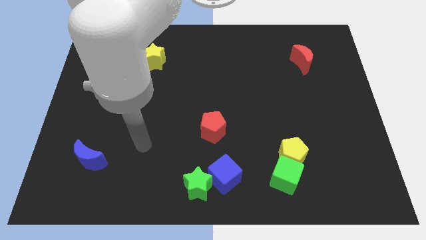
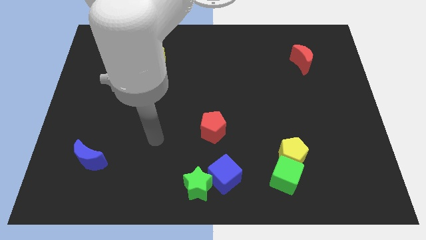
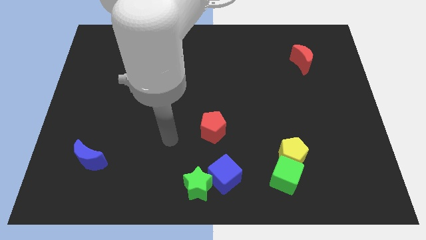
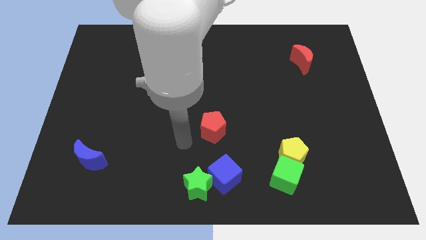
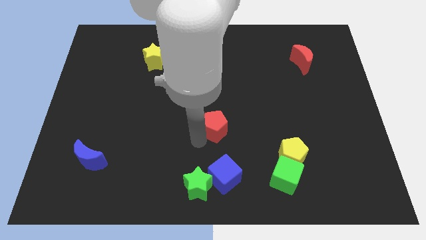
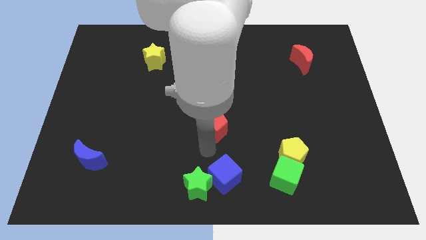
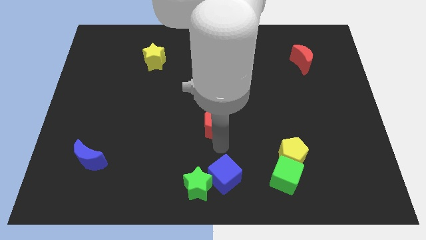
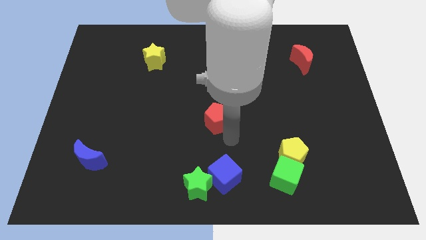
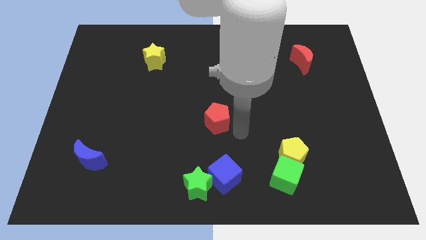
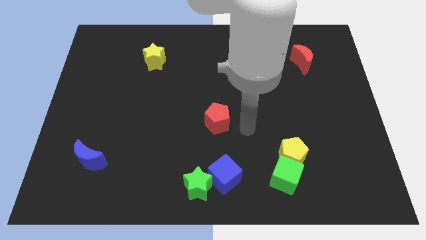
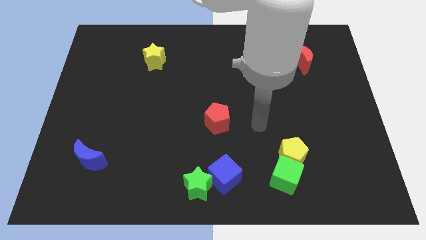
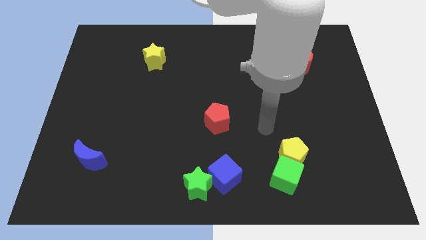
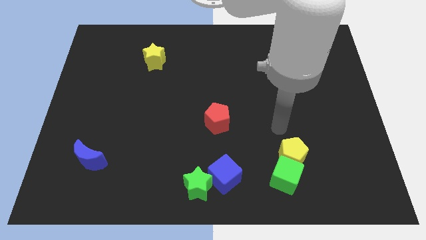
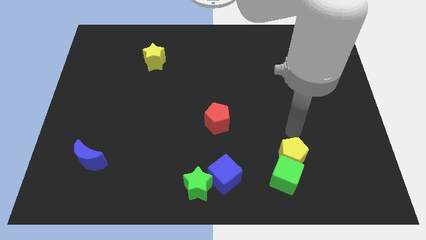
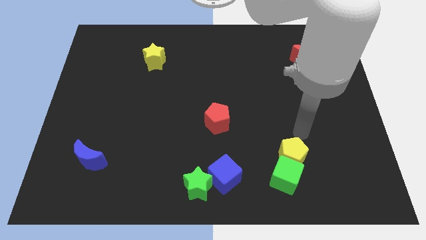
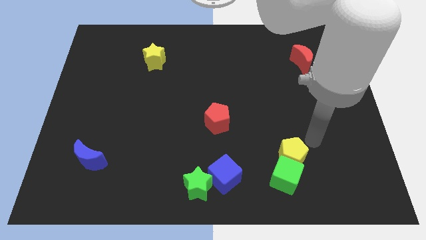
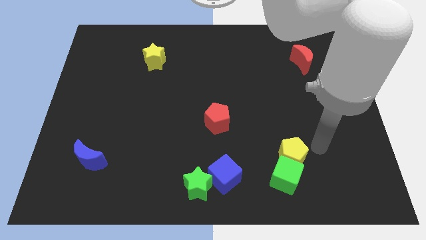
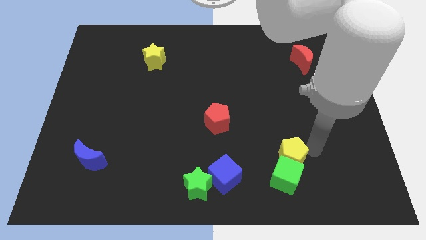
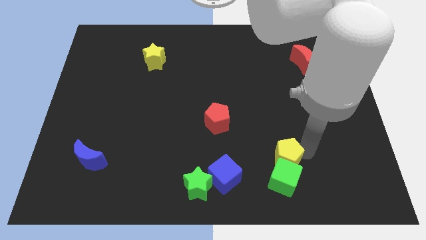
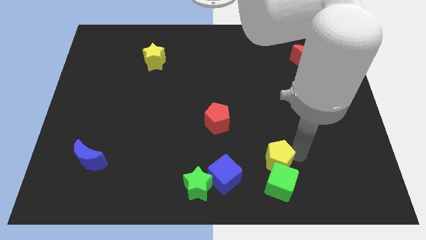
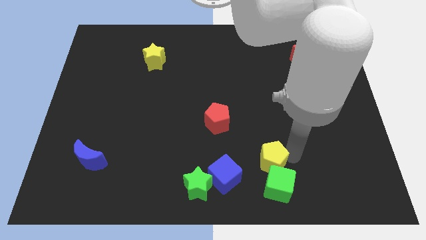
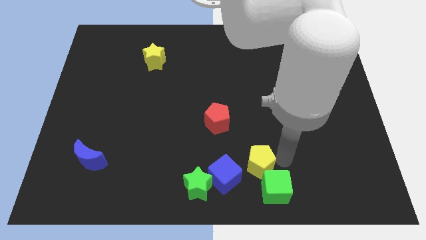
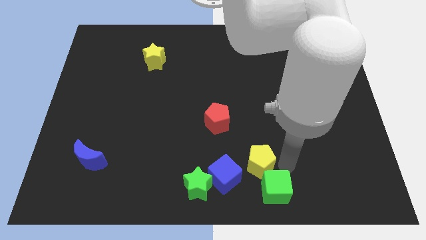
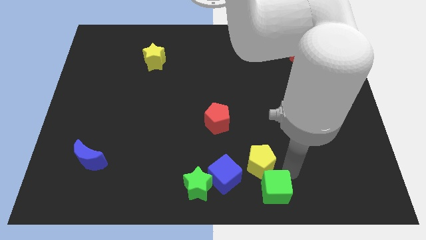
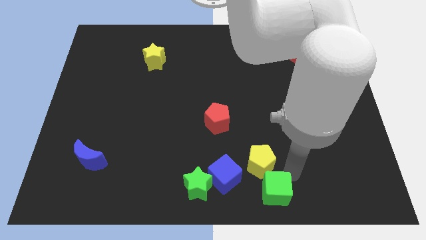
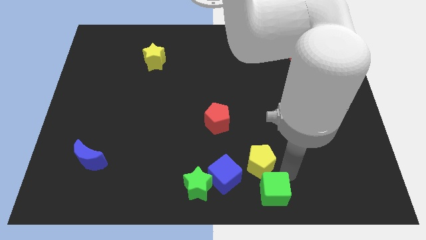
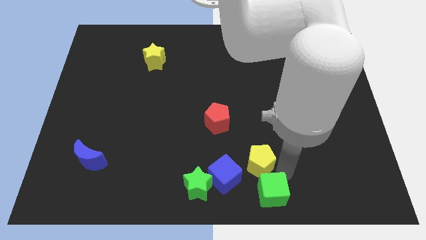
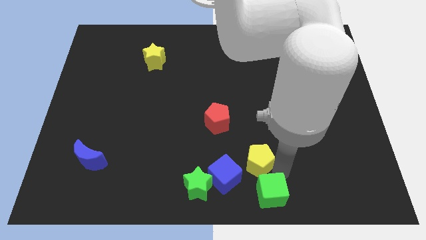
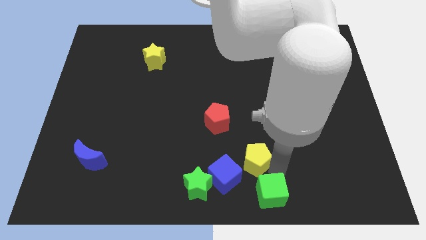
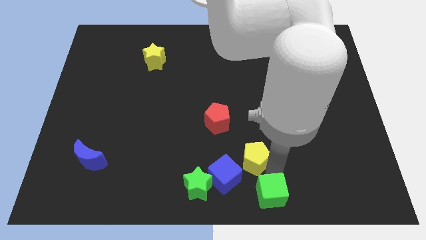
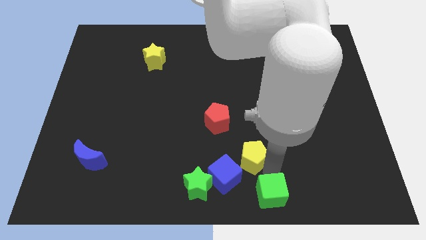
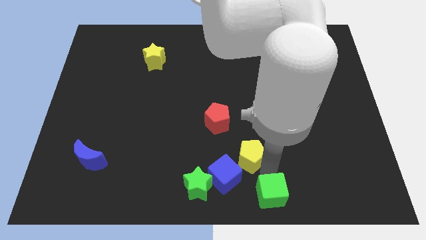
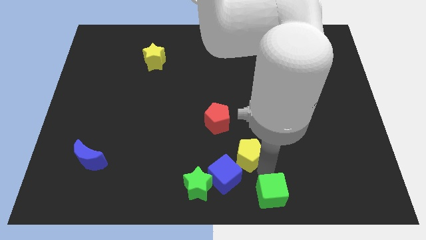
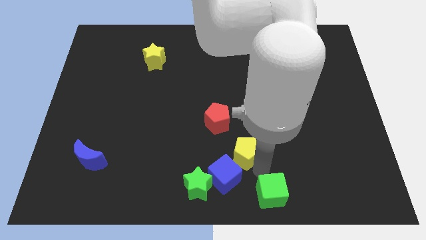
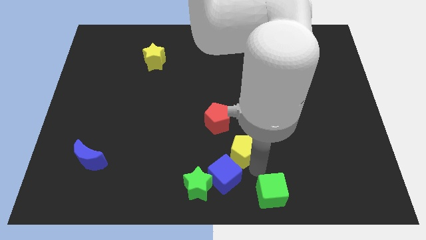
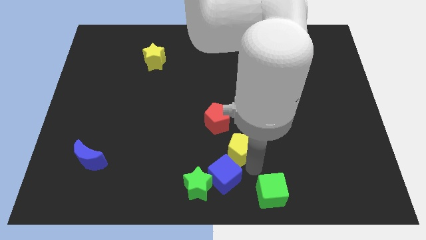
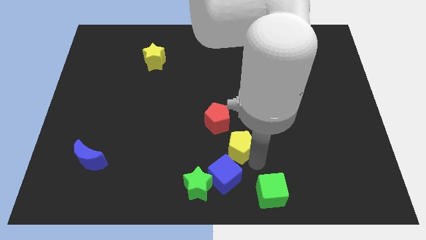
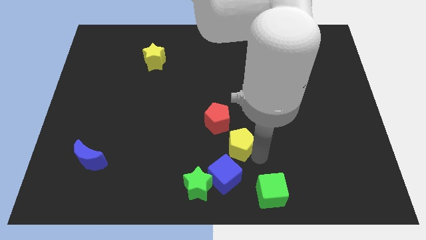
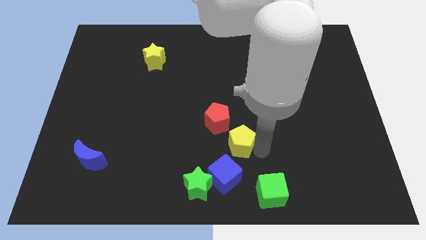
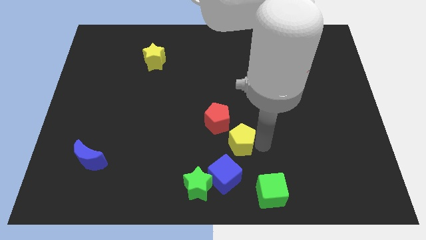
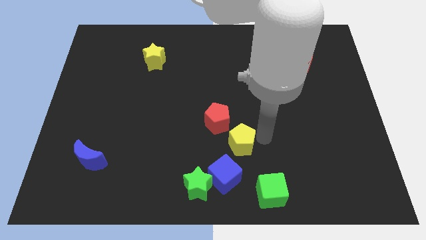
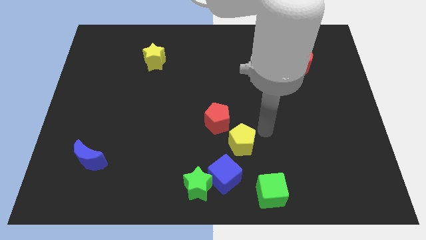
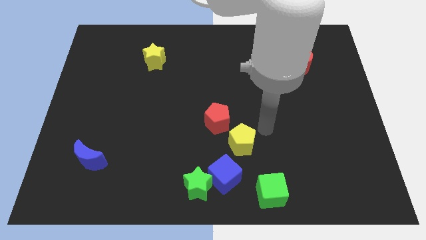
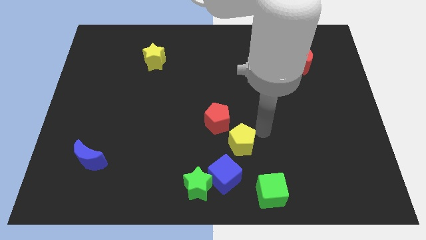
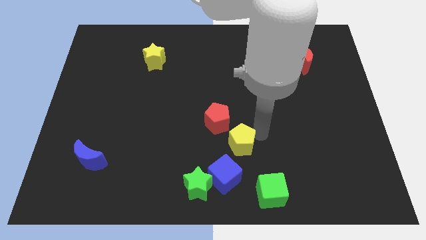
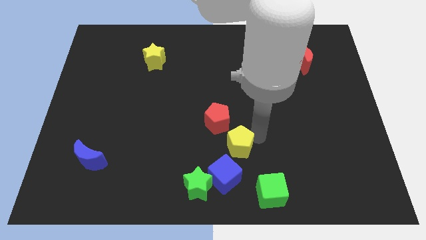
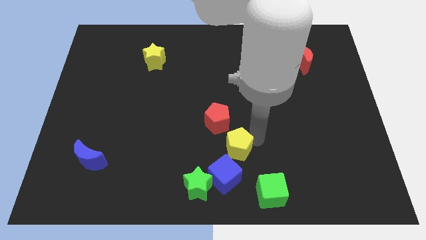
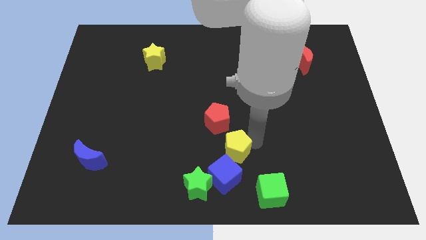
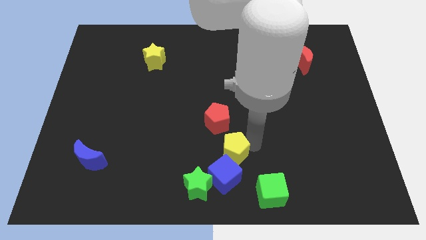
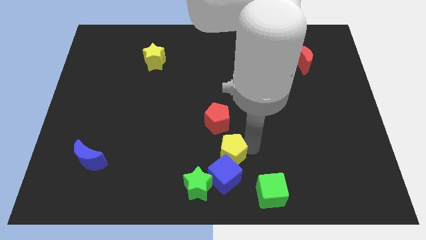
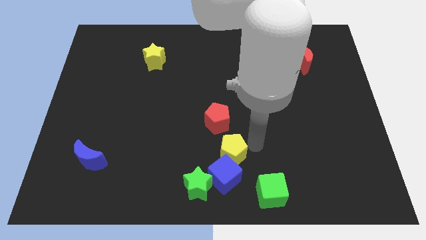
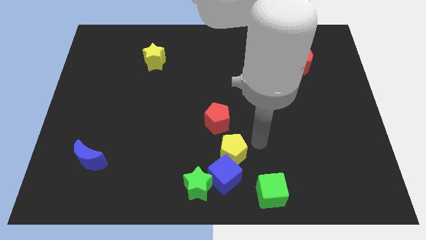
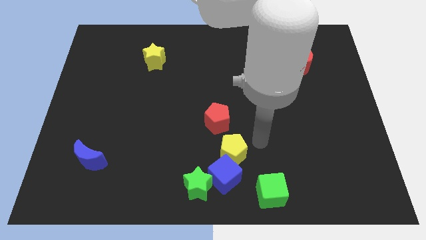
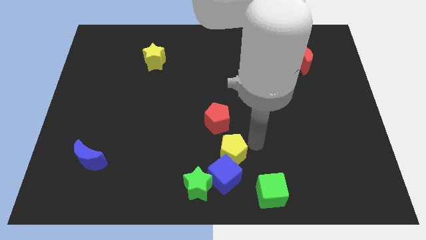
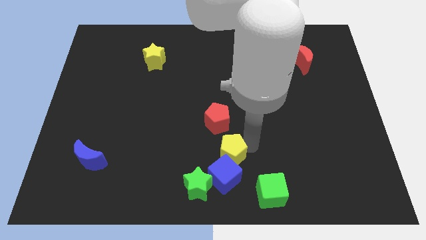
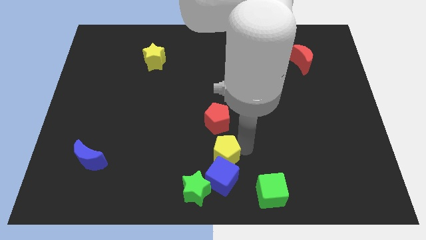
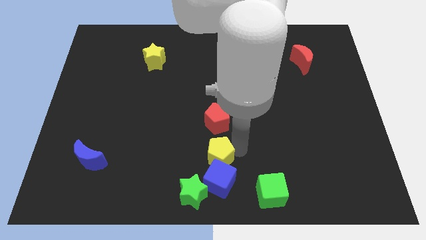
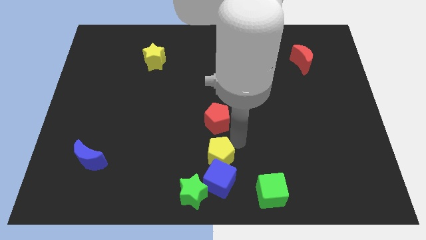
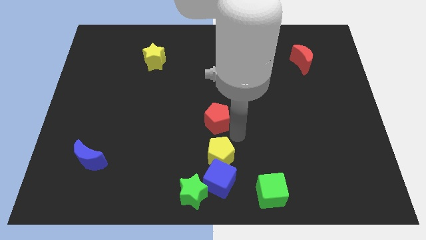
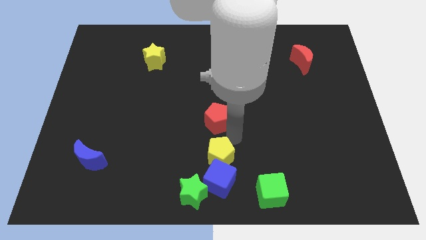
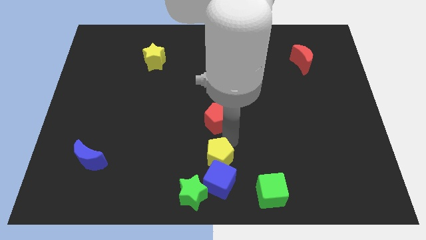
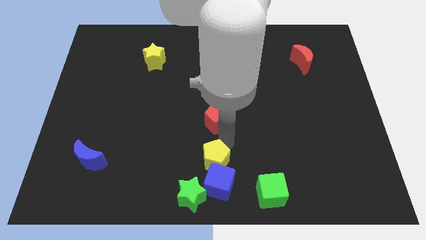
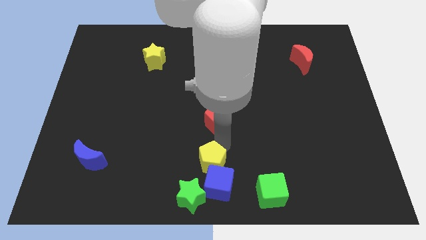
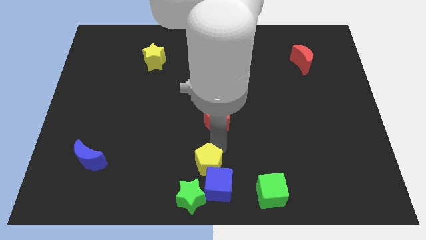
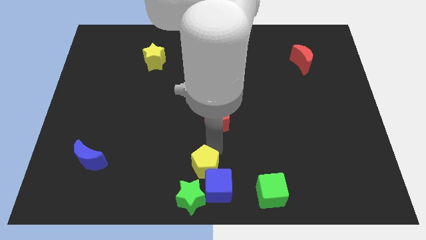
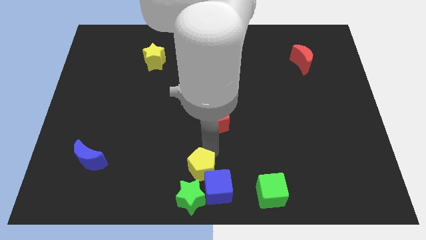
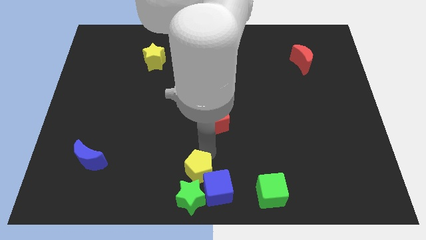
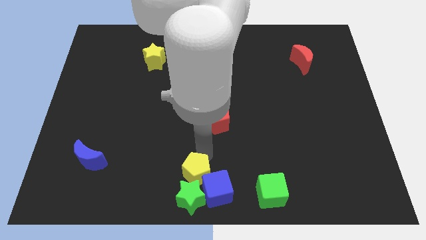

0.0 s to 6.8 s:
put the yellow pentagon to the green star

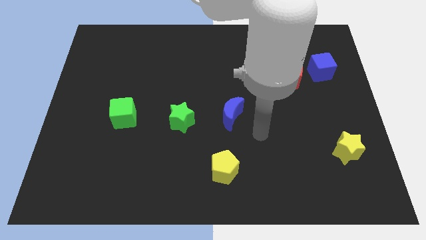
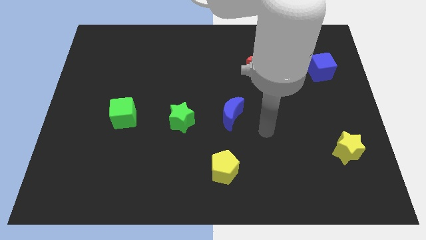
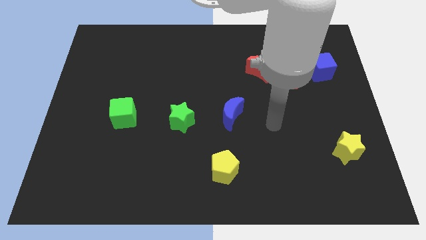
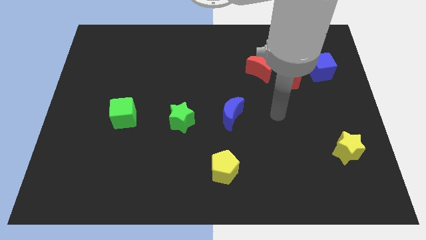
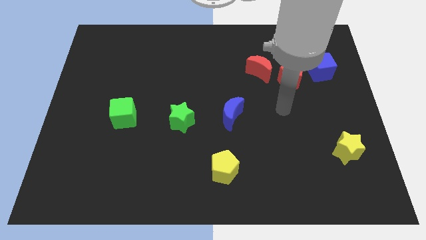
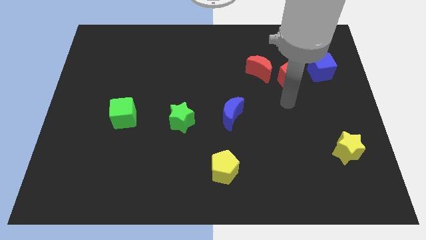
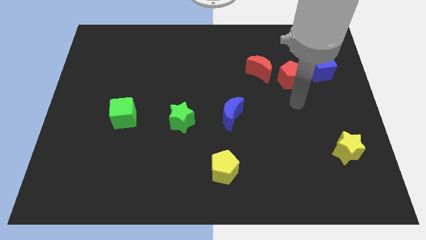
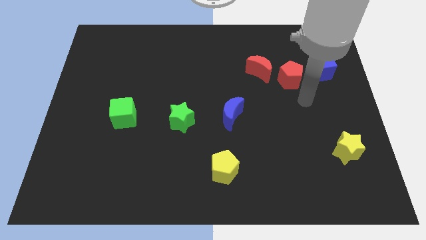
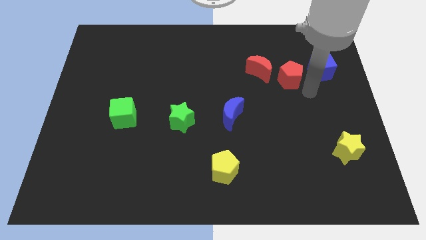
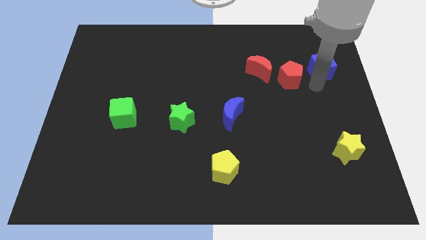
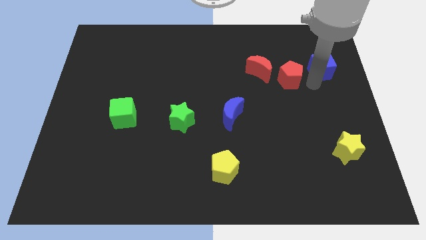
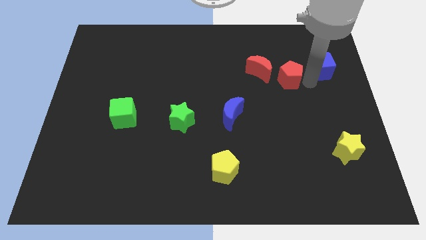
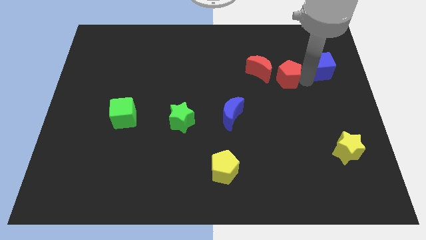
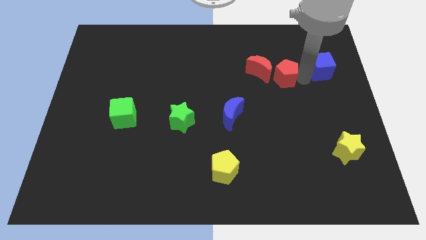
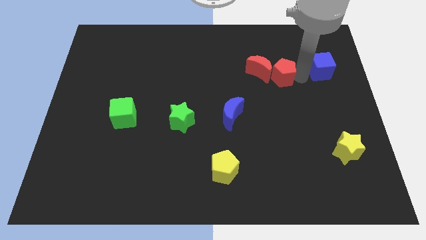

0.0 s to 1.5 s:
push the red pentagon next to the red moon
